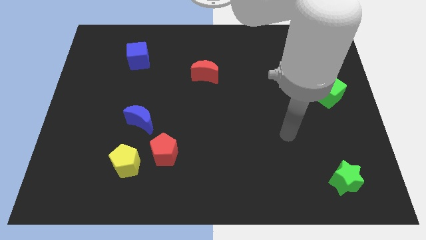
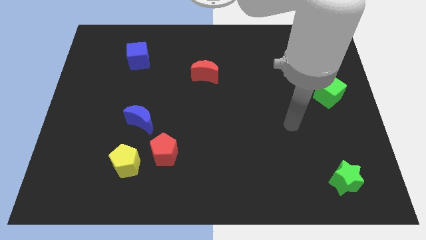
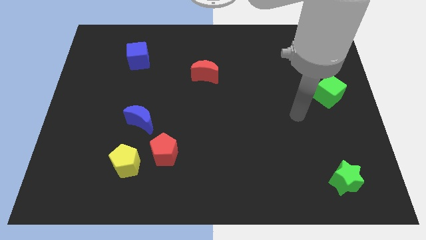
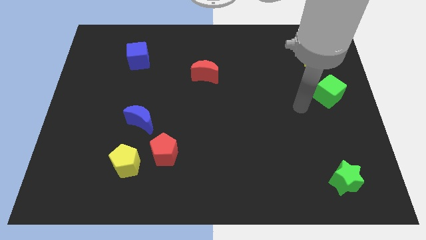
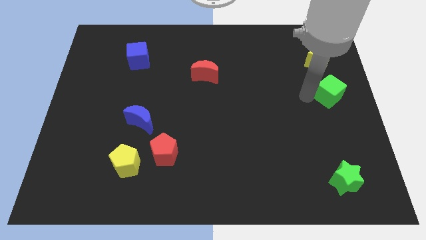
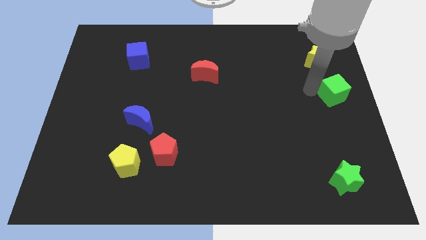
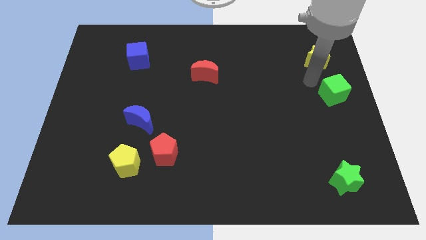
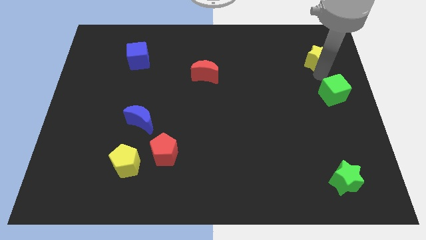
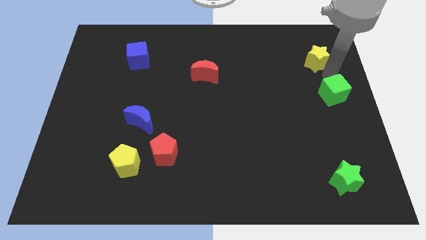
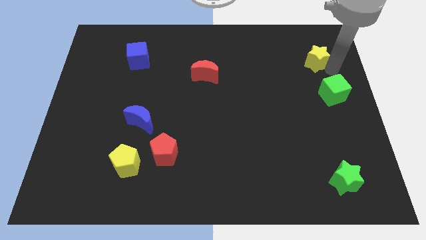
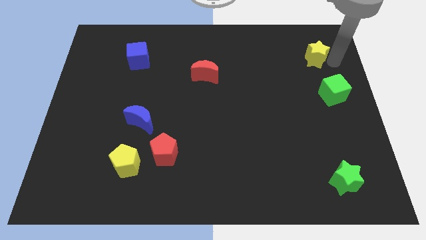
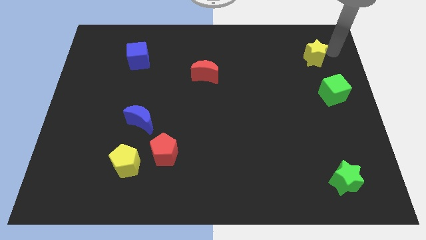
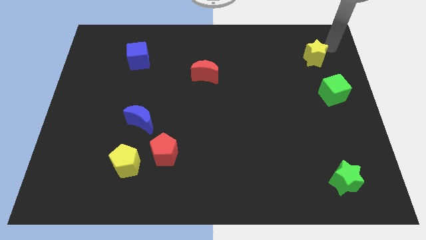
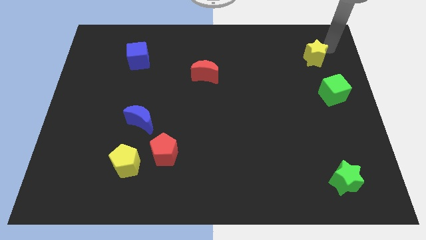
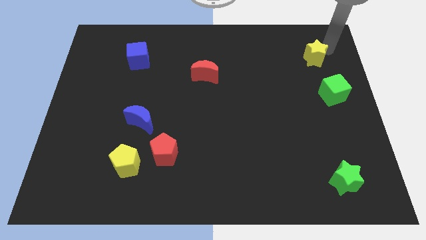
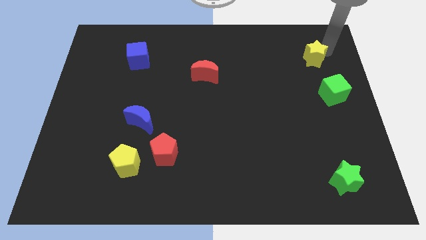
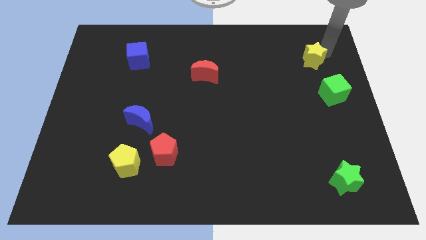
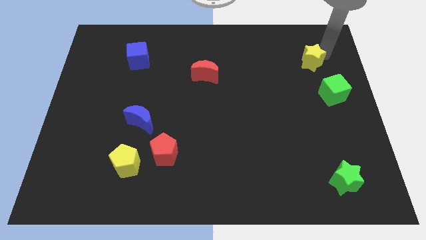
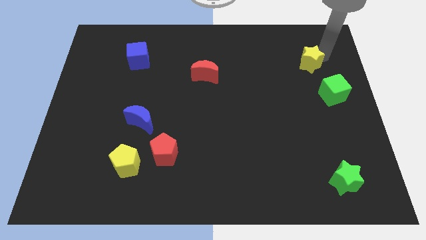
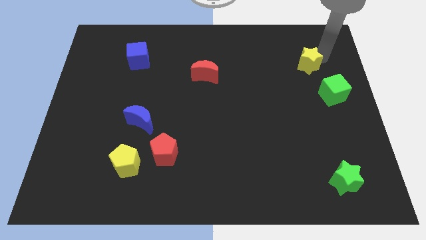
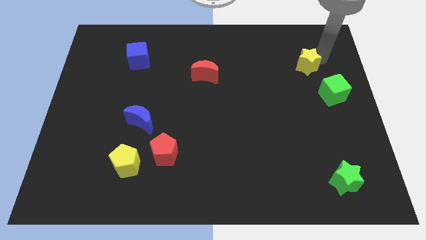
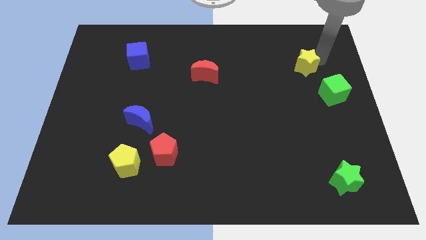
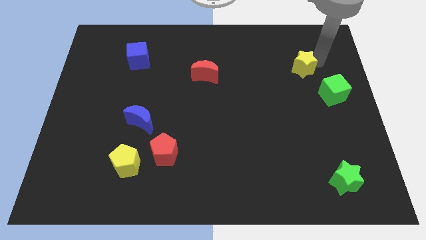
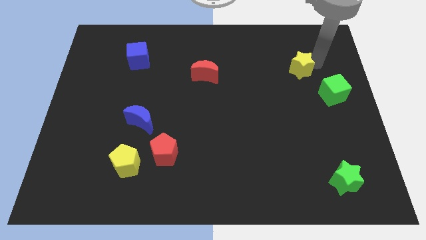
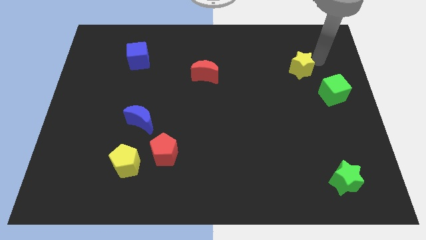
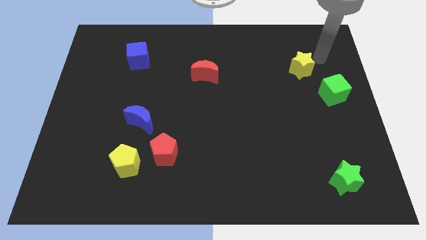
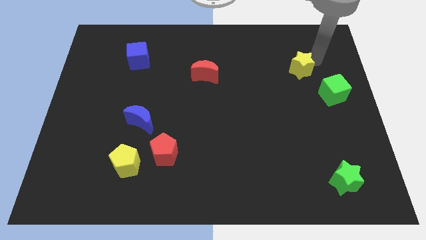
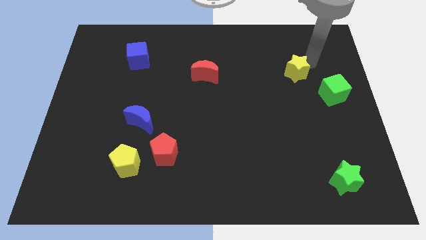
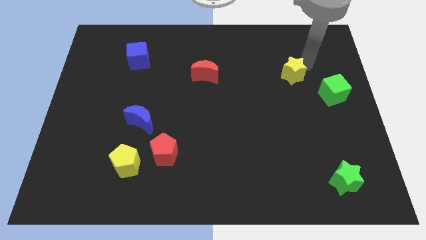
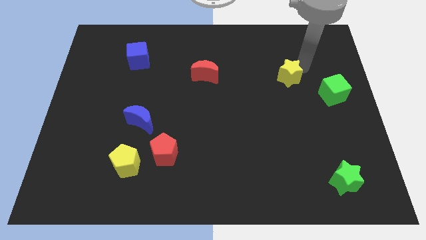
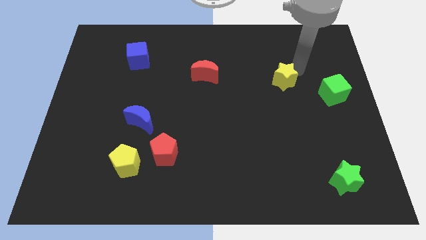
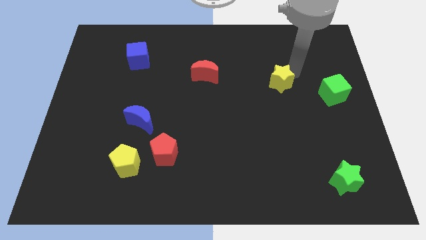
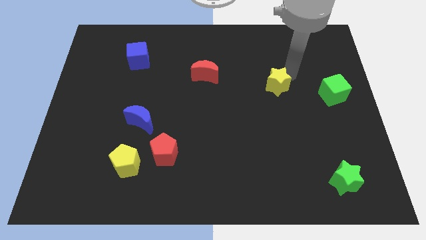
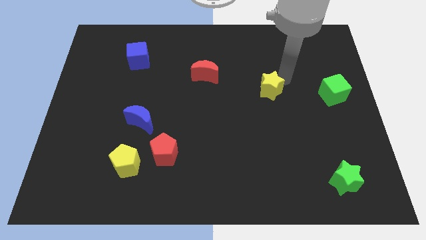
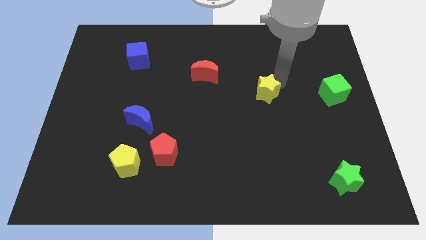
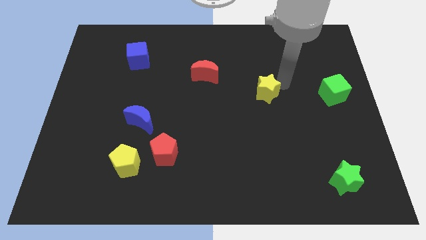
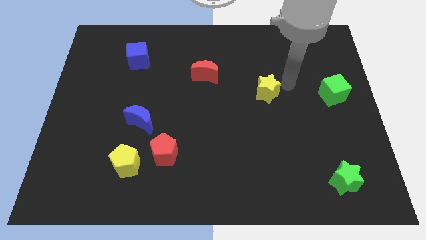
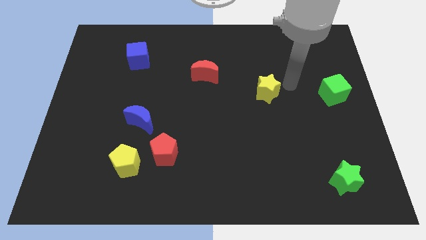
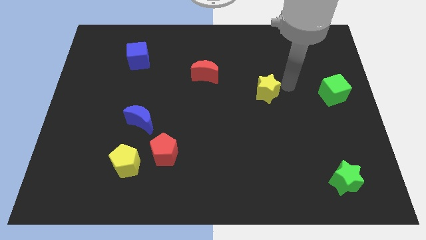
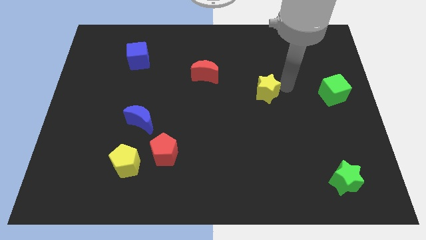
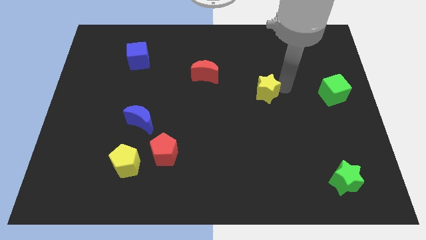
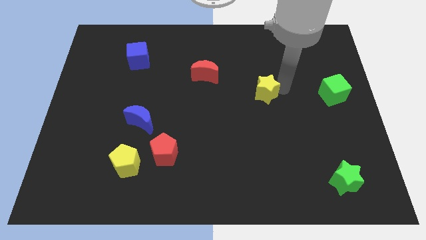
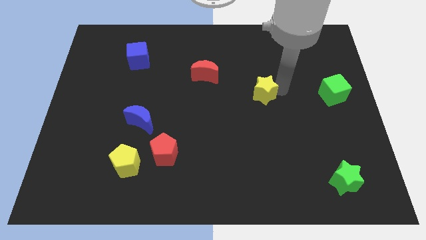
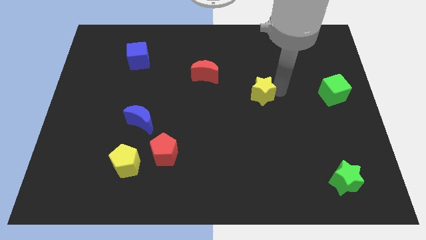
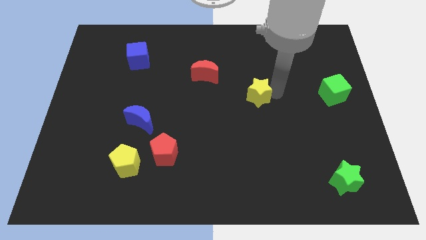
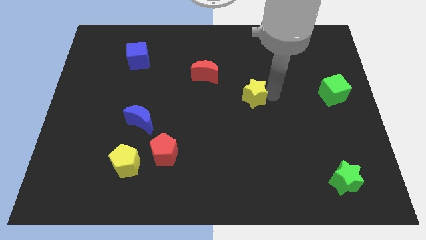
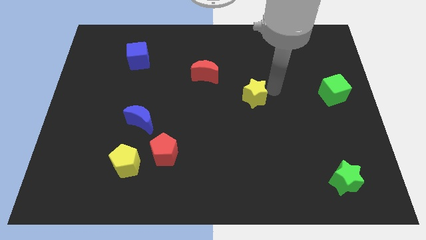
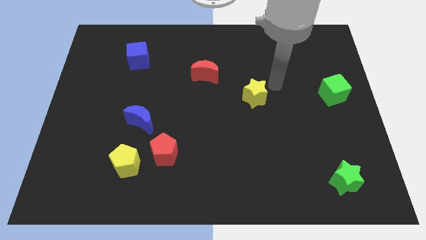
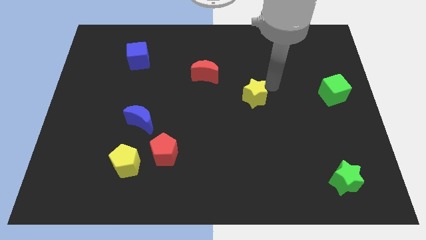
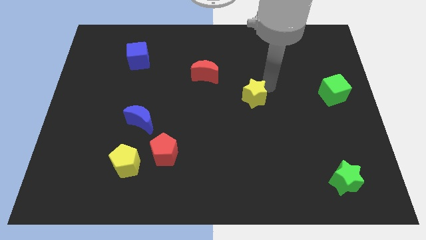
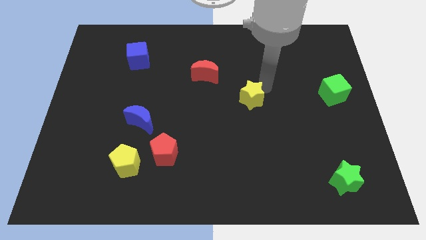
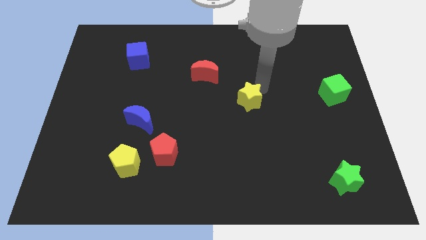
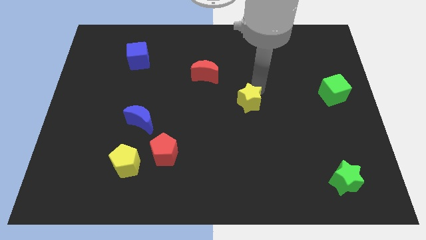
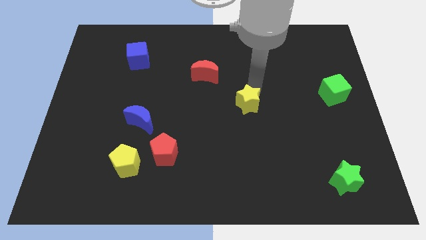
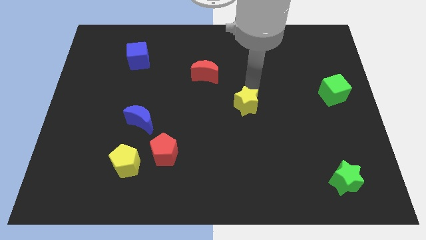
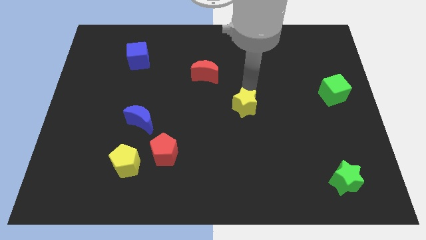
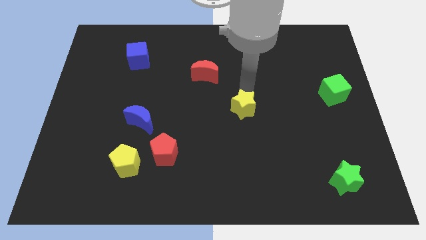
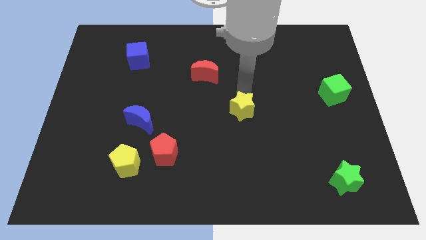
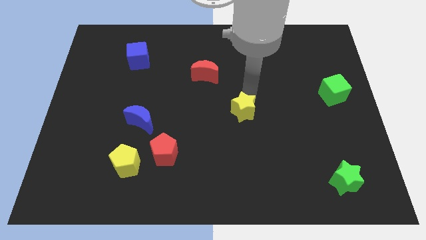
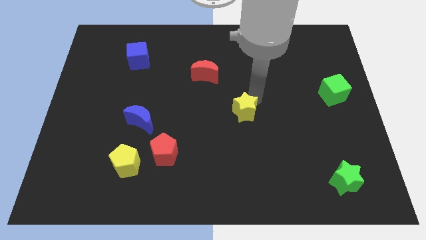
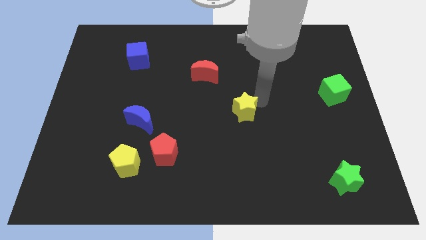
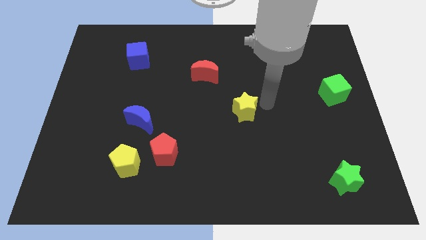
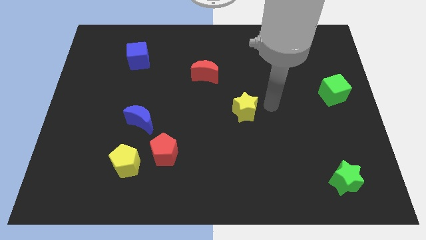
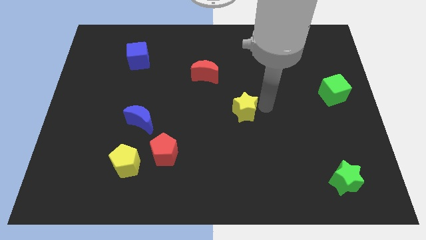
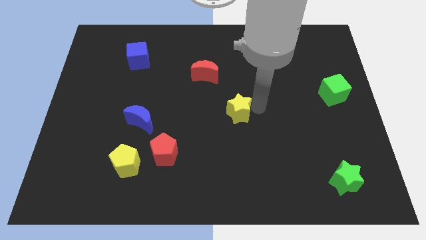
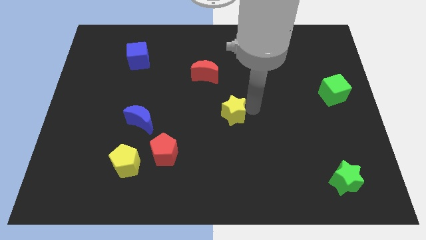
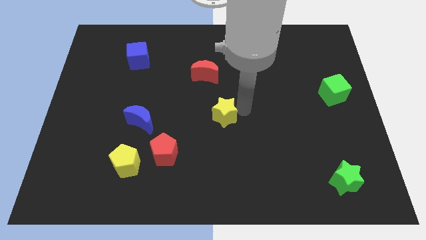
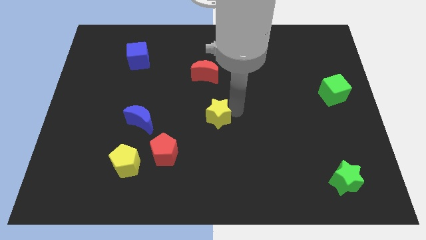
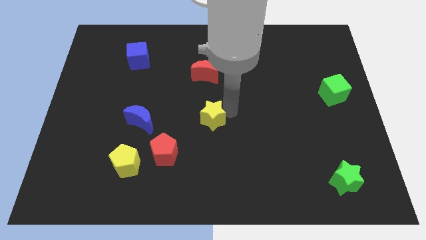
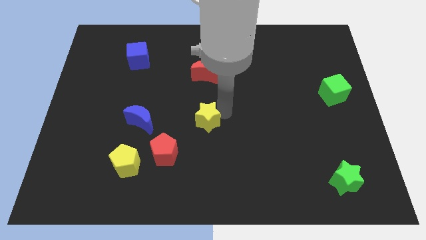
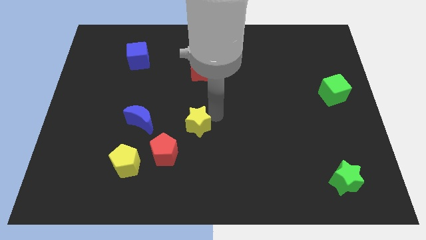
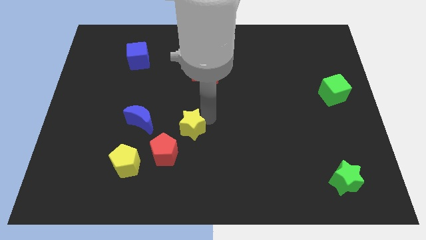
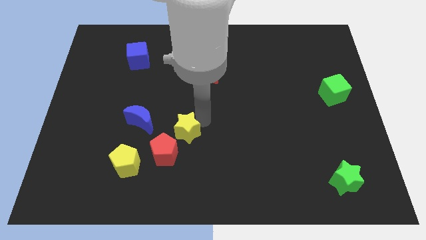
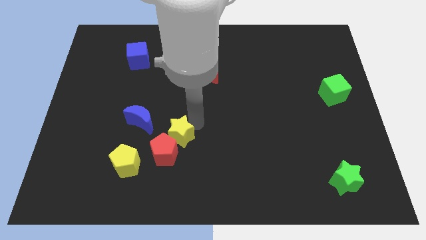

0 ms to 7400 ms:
slide the yellow star next to the red pentagon

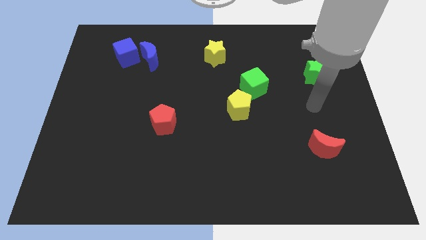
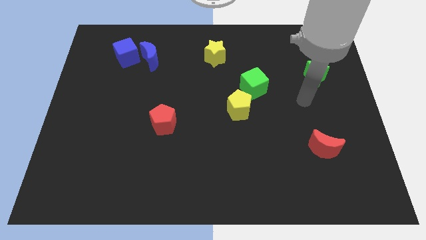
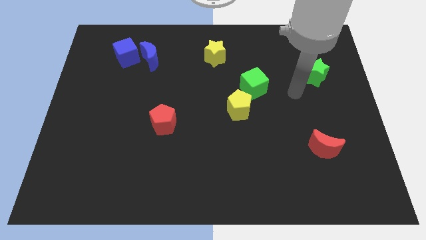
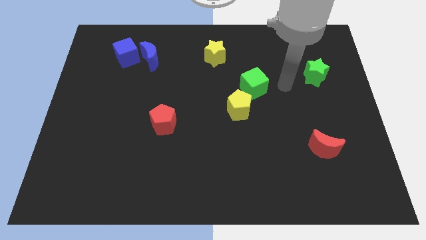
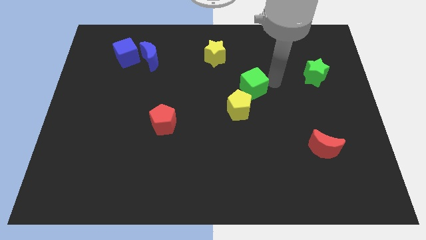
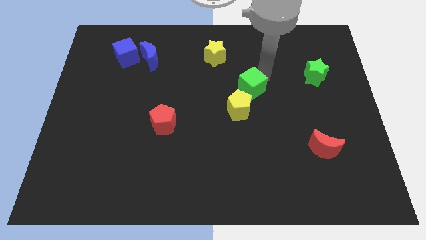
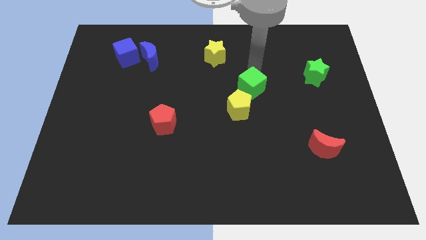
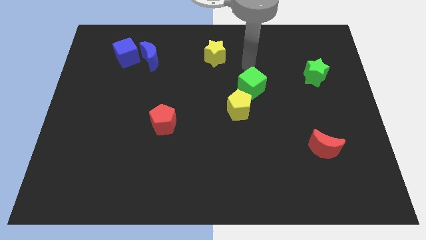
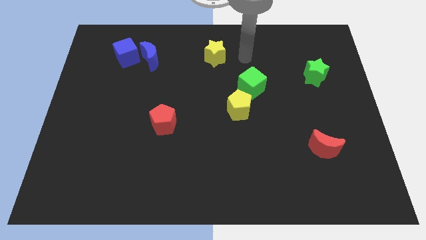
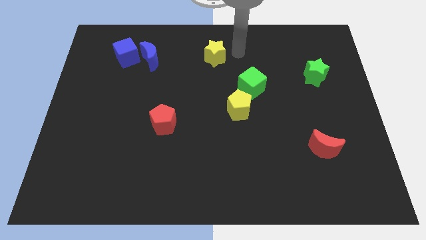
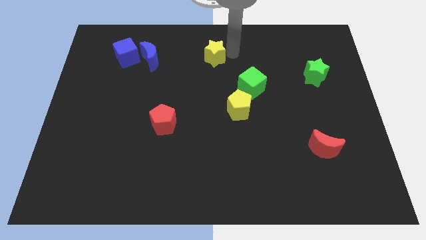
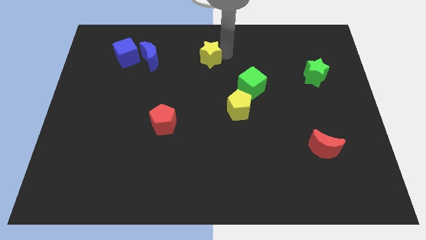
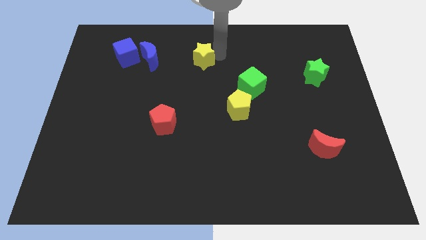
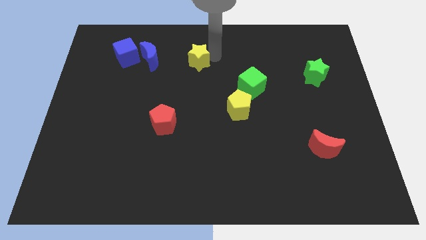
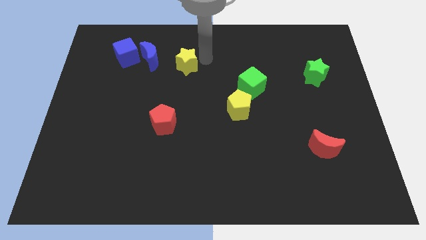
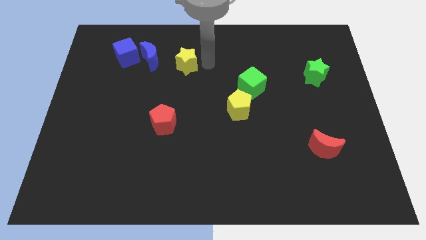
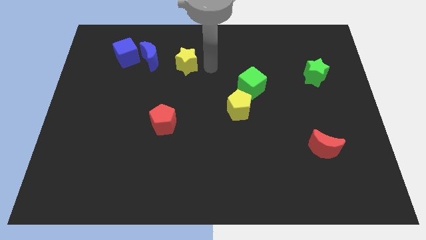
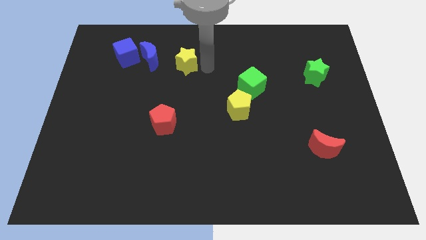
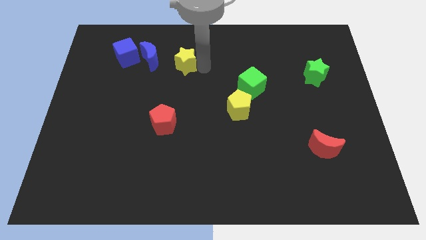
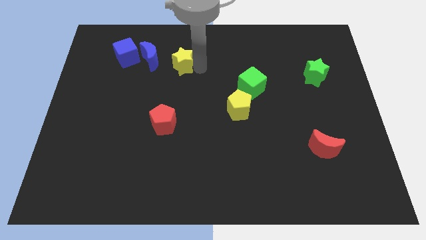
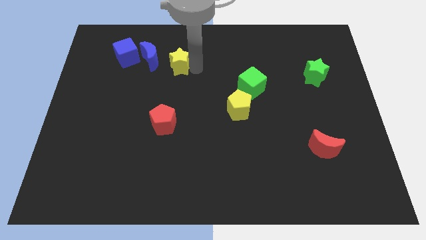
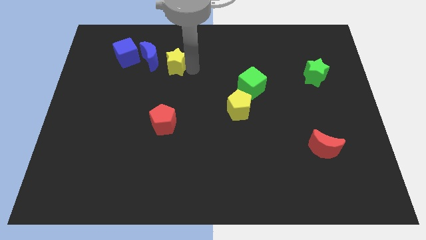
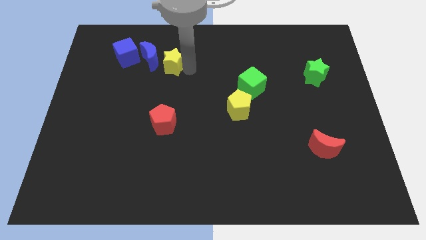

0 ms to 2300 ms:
push the yellow star next to the blue moon
